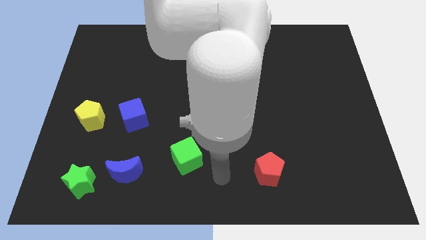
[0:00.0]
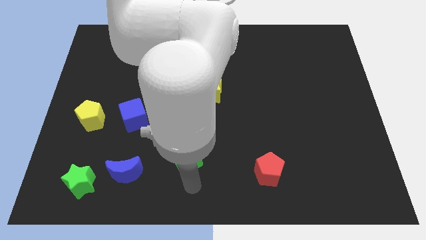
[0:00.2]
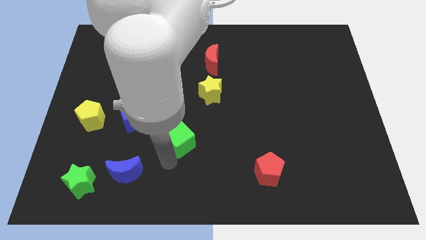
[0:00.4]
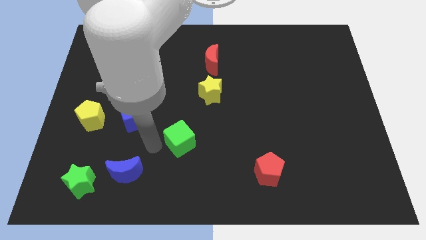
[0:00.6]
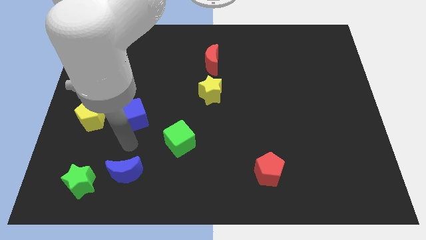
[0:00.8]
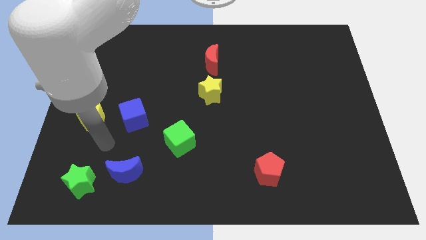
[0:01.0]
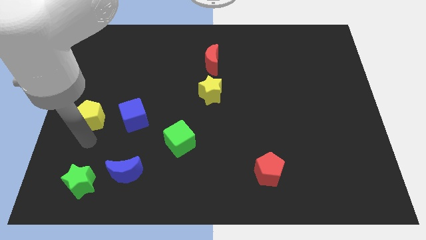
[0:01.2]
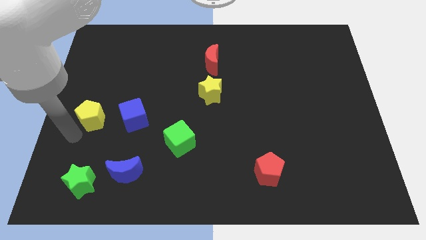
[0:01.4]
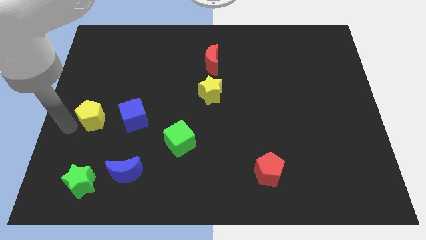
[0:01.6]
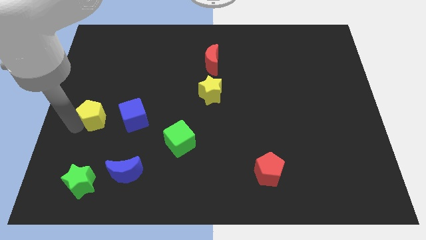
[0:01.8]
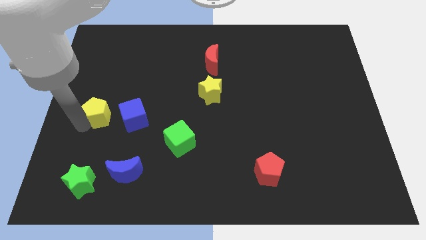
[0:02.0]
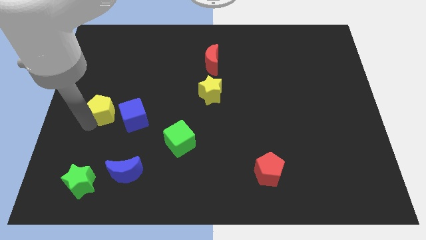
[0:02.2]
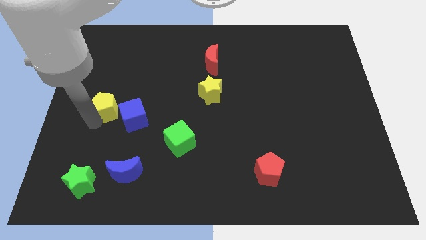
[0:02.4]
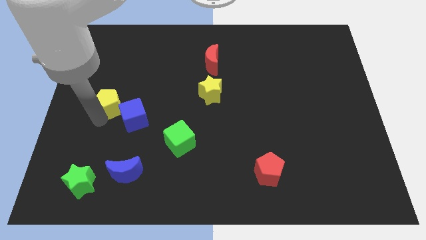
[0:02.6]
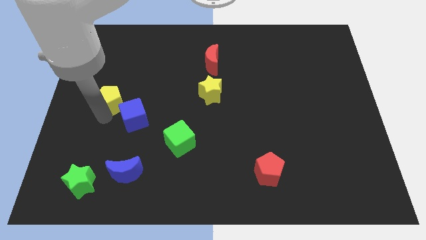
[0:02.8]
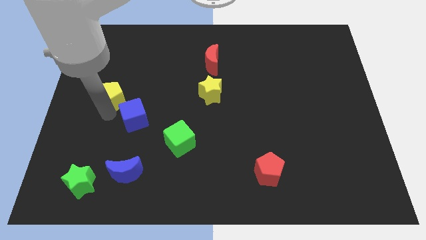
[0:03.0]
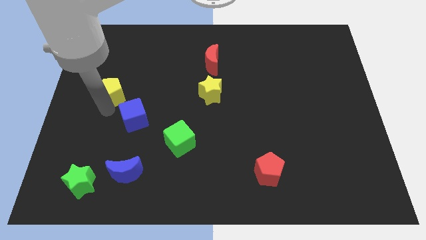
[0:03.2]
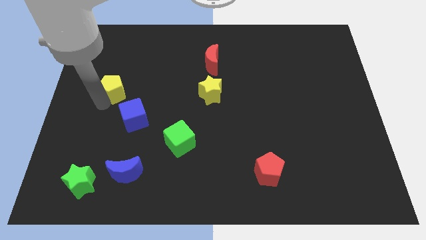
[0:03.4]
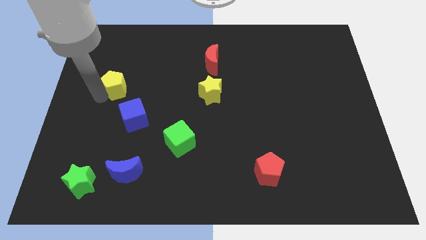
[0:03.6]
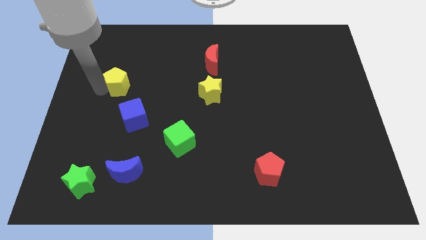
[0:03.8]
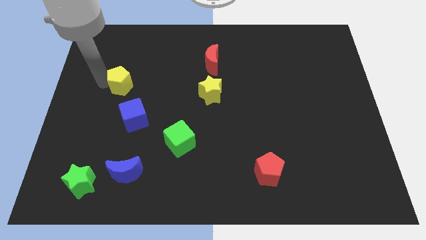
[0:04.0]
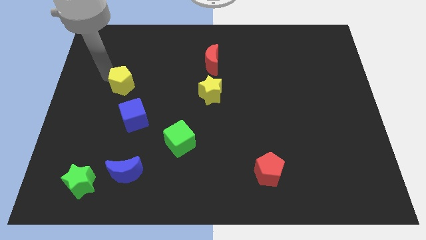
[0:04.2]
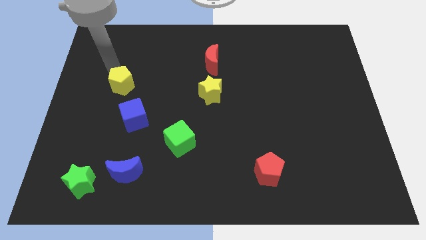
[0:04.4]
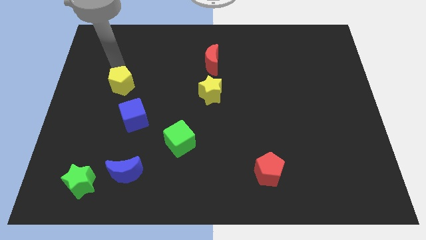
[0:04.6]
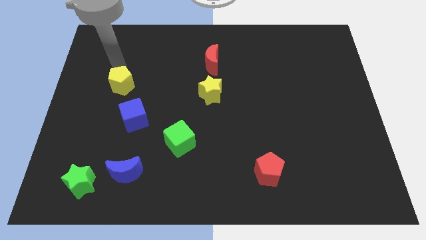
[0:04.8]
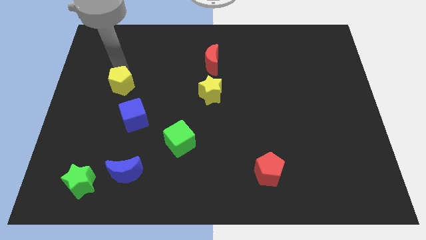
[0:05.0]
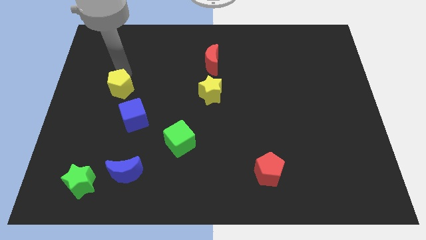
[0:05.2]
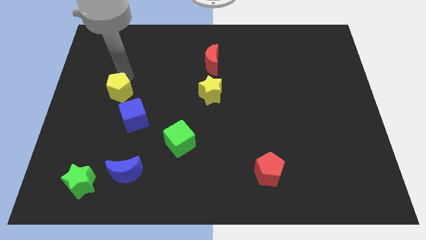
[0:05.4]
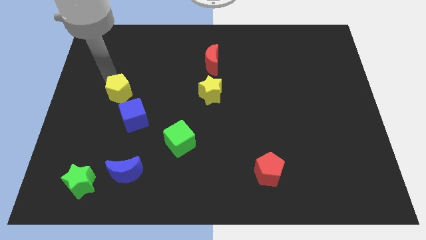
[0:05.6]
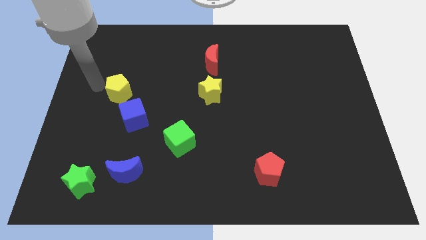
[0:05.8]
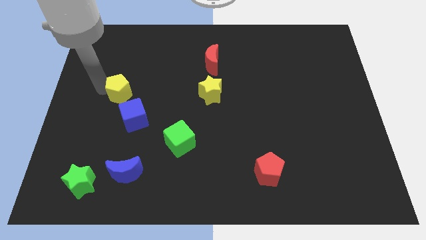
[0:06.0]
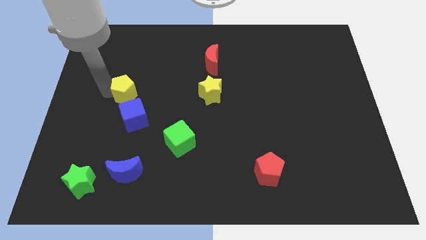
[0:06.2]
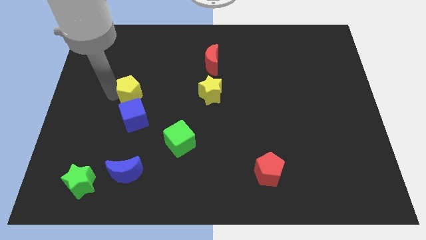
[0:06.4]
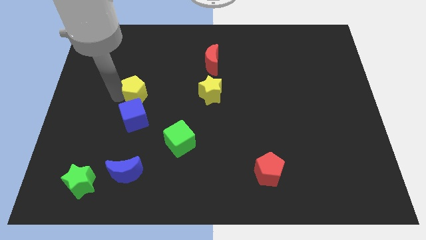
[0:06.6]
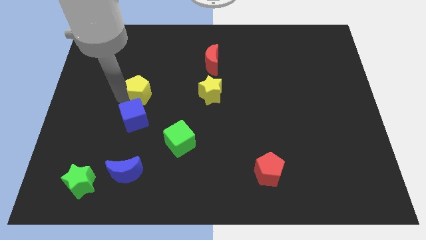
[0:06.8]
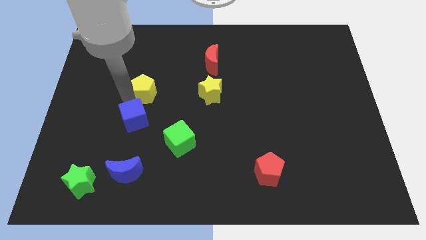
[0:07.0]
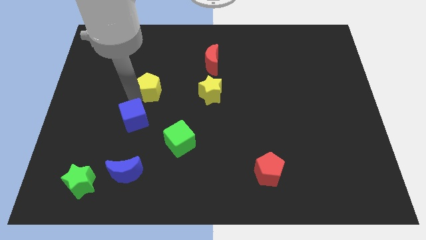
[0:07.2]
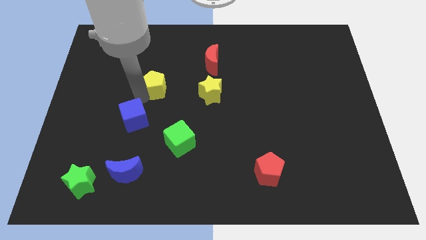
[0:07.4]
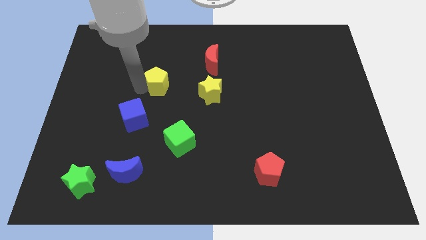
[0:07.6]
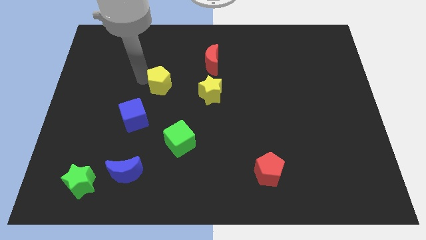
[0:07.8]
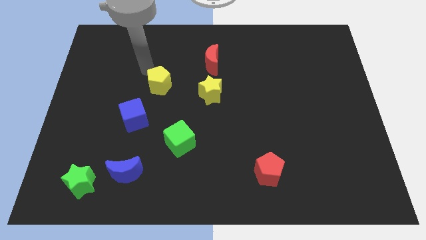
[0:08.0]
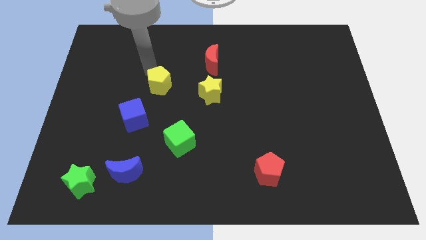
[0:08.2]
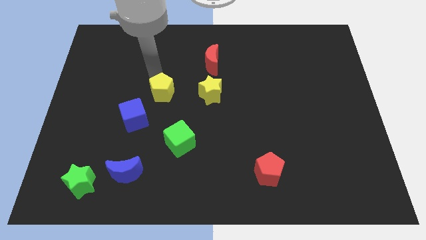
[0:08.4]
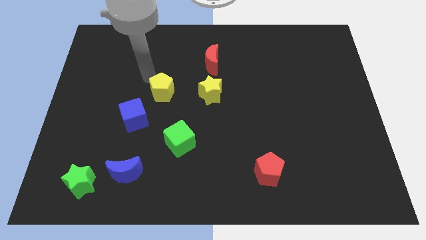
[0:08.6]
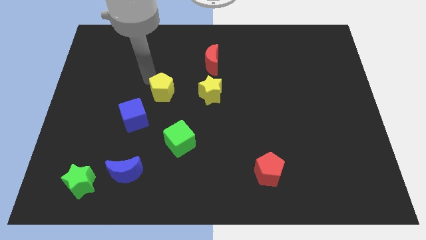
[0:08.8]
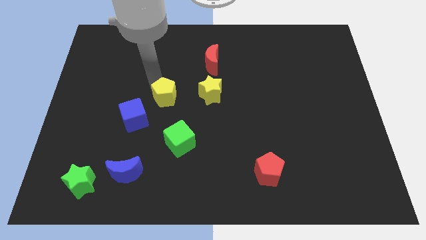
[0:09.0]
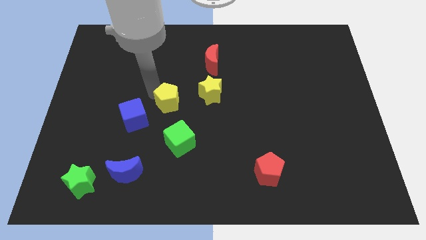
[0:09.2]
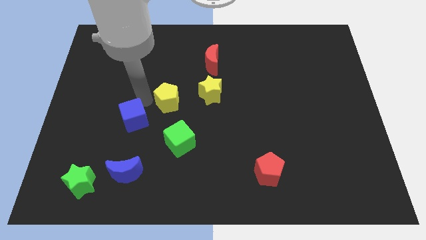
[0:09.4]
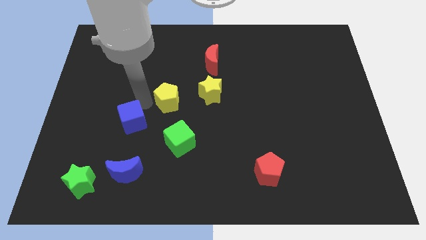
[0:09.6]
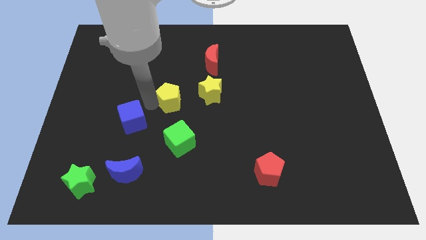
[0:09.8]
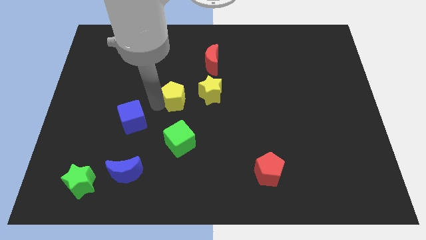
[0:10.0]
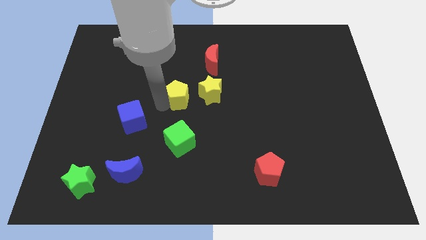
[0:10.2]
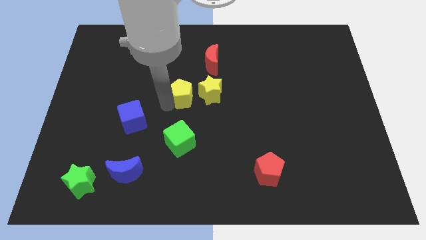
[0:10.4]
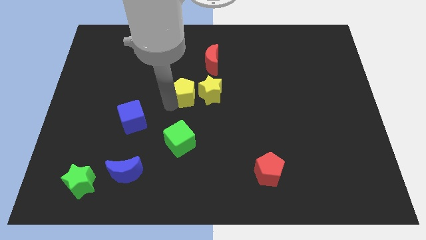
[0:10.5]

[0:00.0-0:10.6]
slide the yellow pentagon close to the yellow star

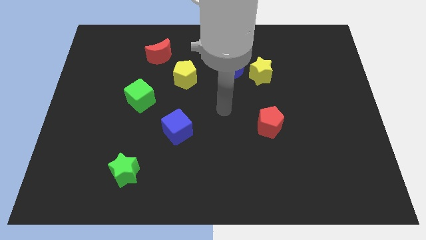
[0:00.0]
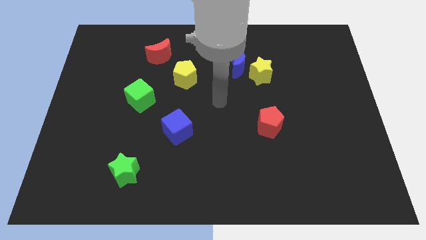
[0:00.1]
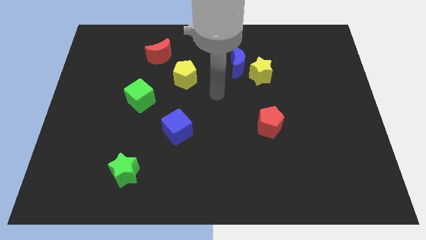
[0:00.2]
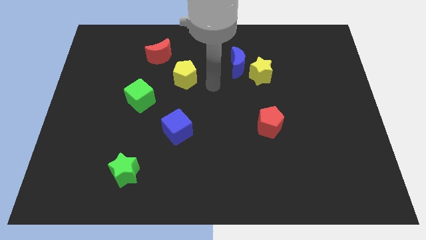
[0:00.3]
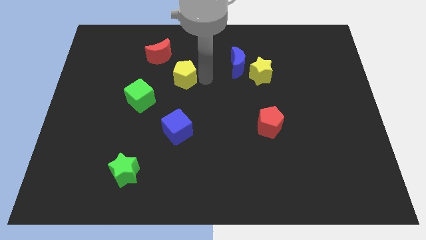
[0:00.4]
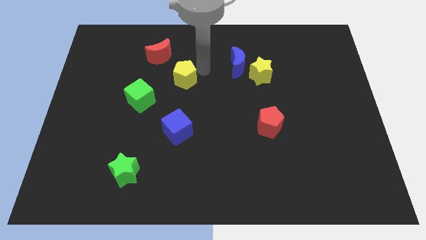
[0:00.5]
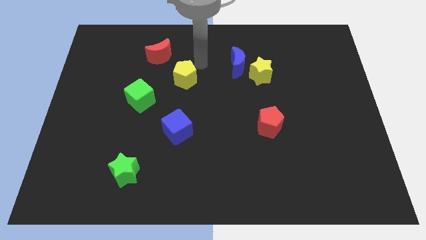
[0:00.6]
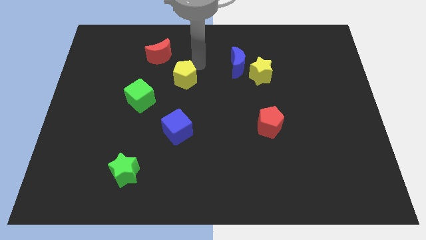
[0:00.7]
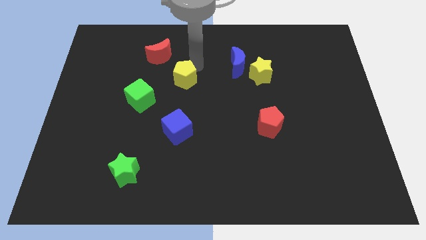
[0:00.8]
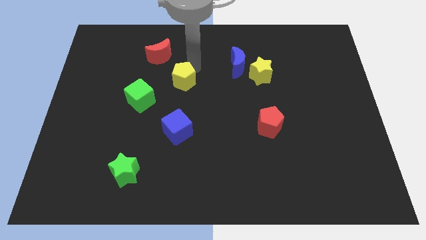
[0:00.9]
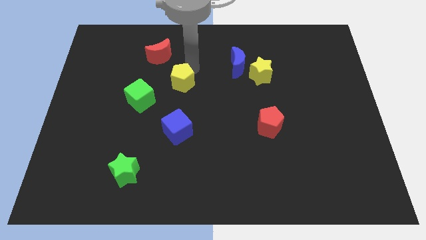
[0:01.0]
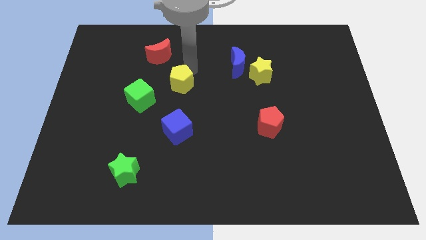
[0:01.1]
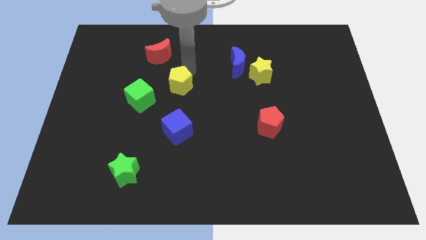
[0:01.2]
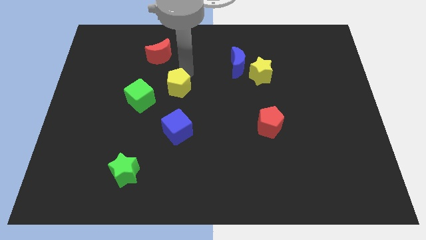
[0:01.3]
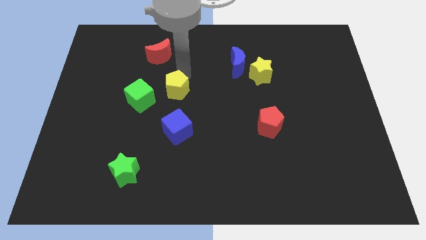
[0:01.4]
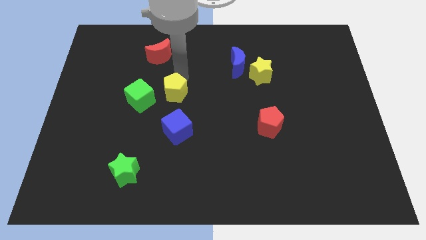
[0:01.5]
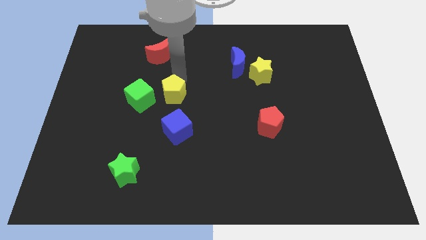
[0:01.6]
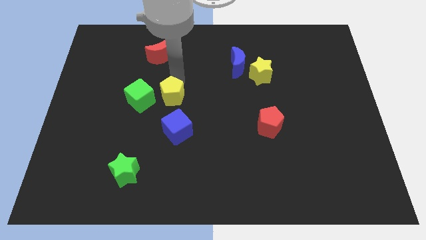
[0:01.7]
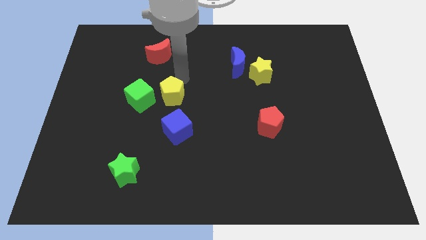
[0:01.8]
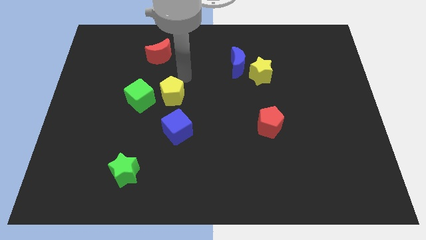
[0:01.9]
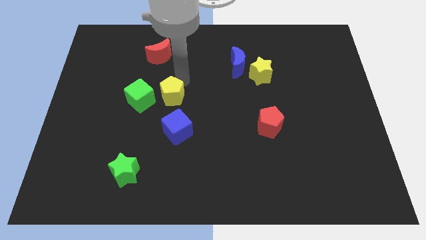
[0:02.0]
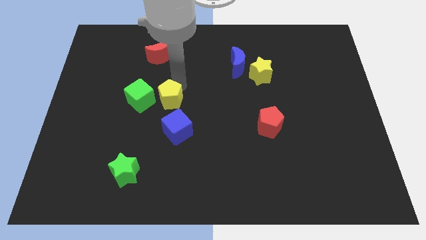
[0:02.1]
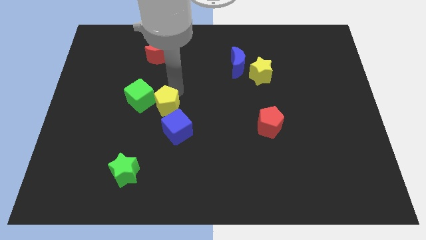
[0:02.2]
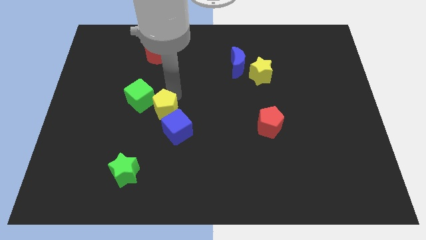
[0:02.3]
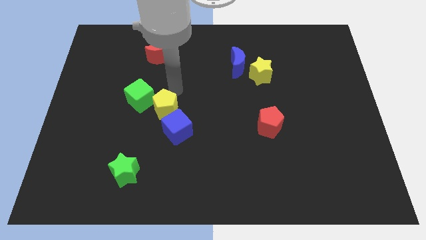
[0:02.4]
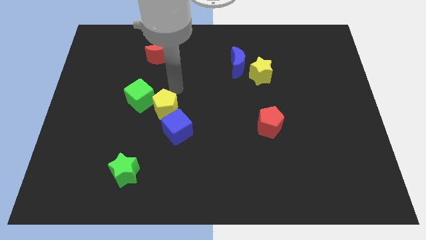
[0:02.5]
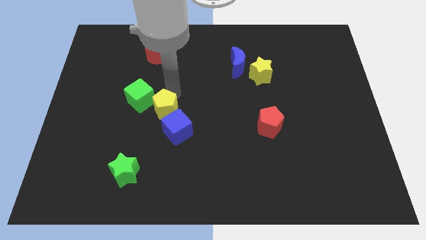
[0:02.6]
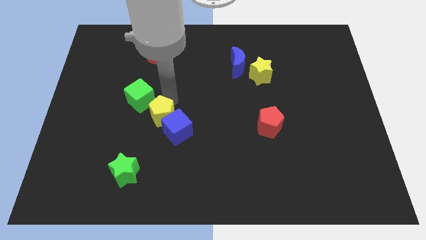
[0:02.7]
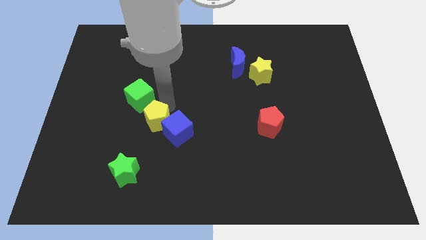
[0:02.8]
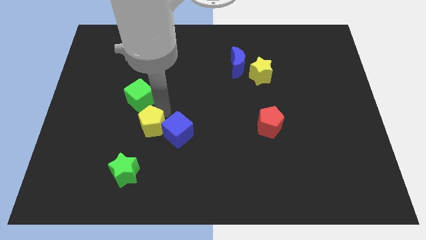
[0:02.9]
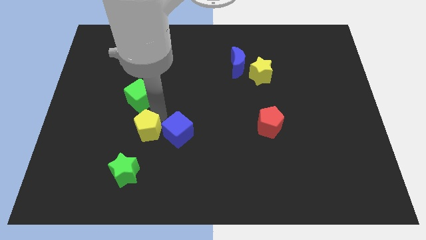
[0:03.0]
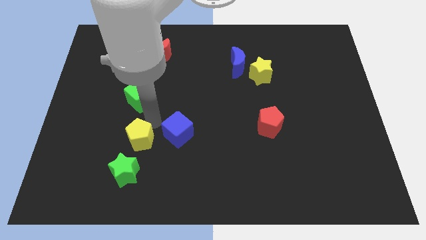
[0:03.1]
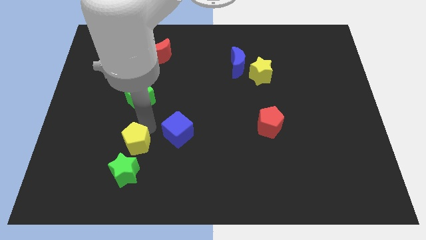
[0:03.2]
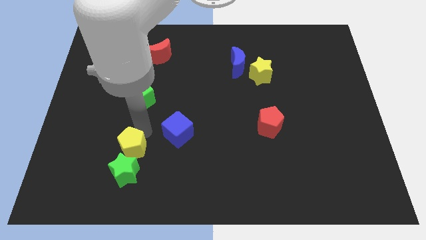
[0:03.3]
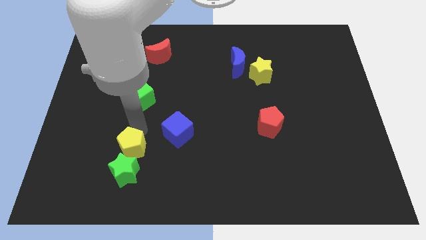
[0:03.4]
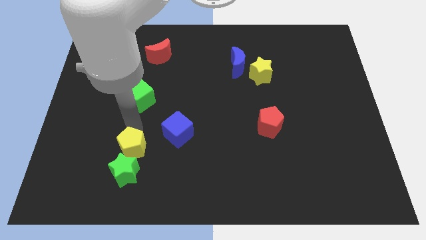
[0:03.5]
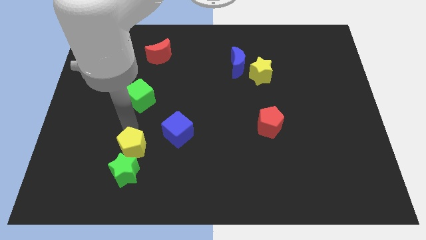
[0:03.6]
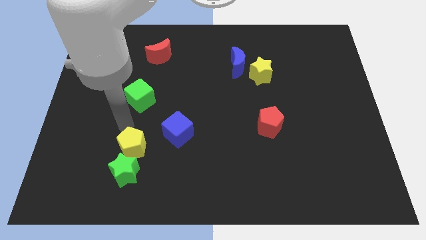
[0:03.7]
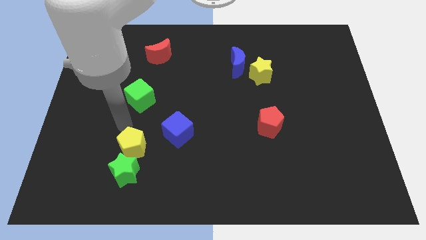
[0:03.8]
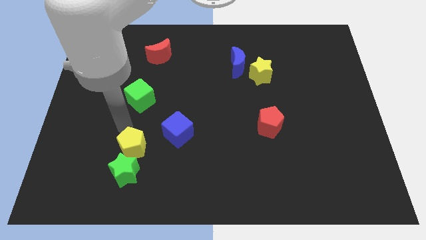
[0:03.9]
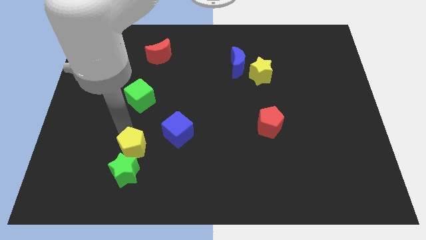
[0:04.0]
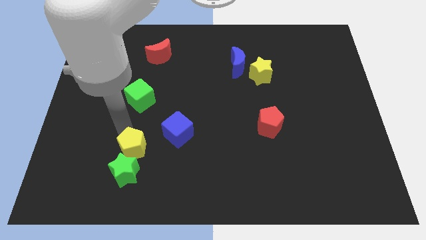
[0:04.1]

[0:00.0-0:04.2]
push the yellow pentagon to the green star
